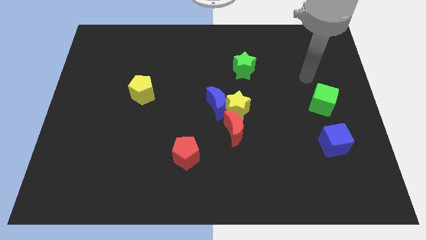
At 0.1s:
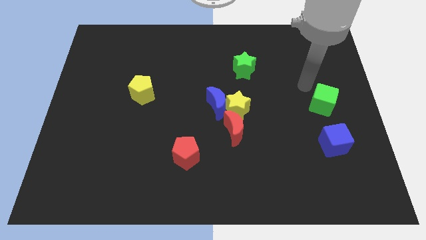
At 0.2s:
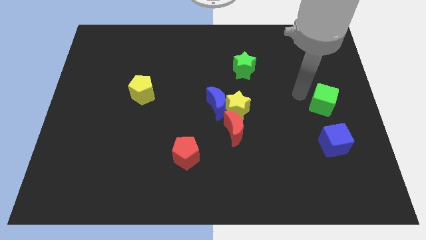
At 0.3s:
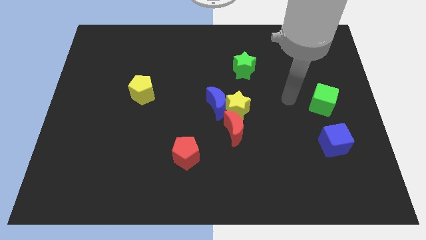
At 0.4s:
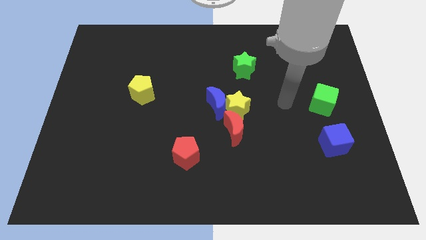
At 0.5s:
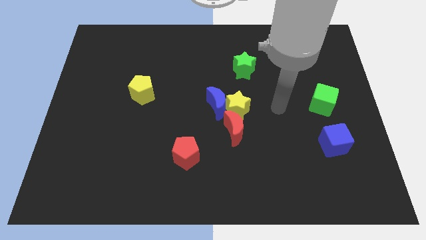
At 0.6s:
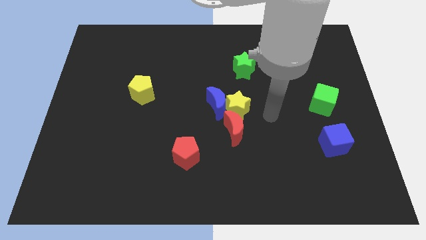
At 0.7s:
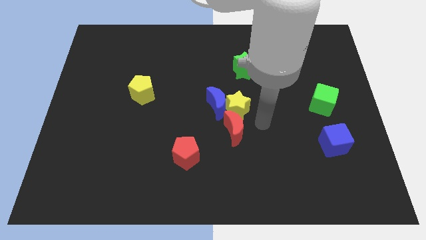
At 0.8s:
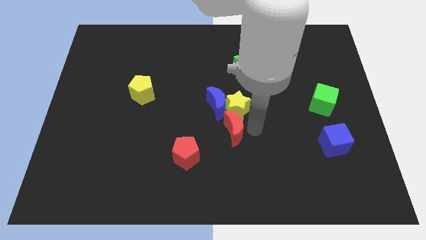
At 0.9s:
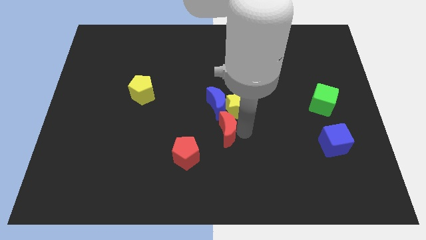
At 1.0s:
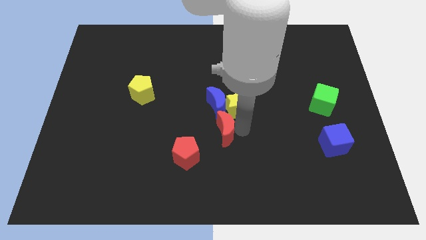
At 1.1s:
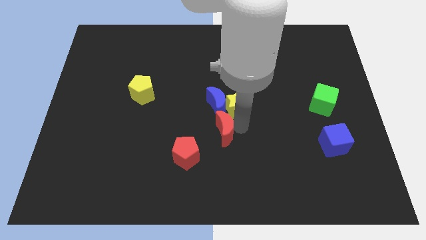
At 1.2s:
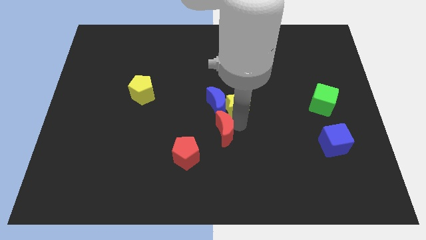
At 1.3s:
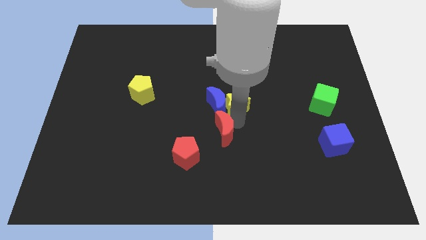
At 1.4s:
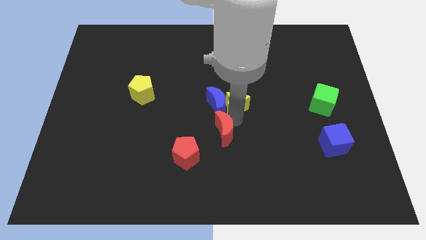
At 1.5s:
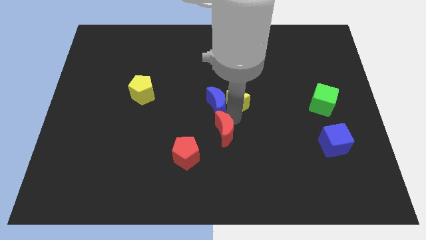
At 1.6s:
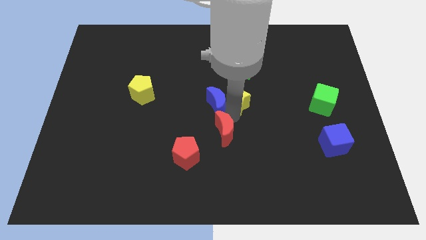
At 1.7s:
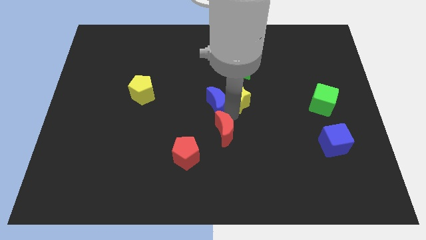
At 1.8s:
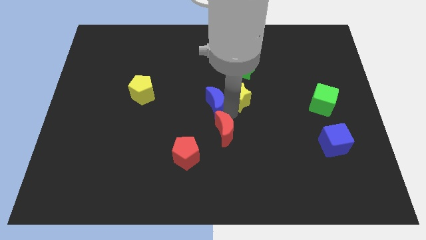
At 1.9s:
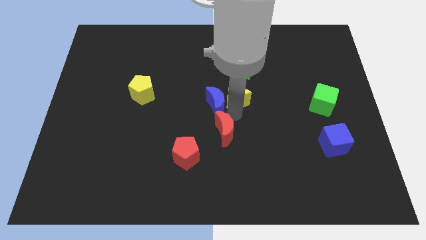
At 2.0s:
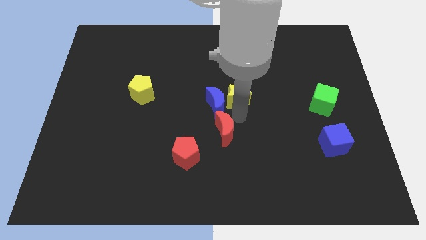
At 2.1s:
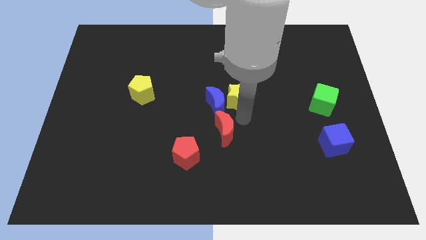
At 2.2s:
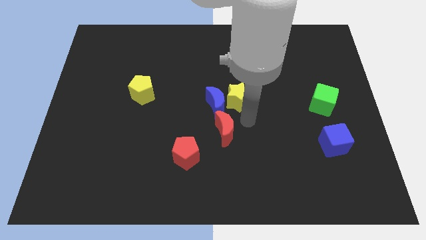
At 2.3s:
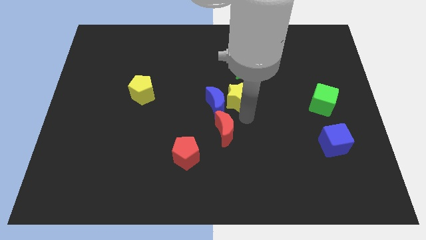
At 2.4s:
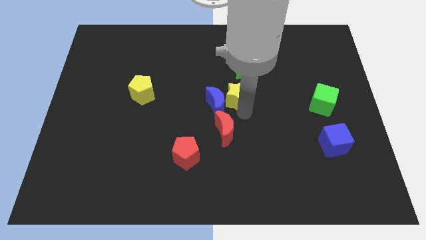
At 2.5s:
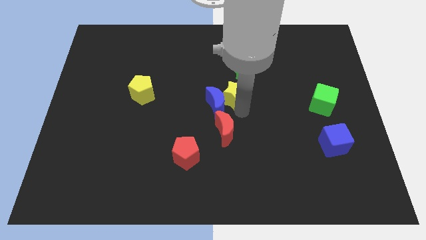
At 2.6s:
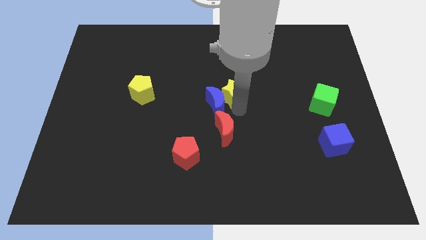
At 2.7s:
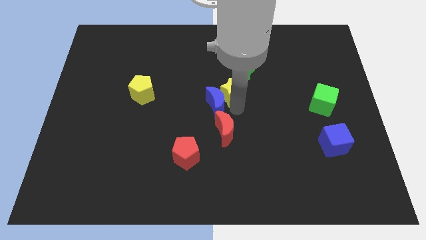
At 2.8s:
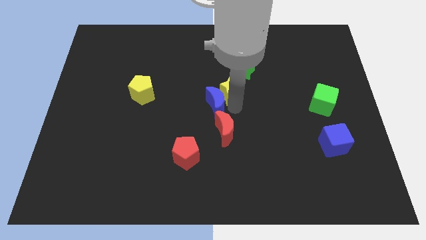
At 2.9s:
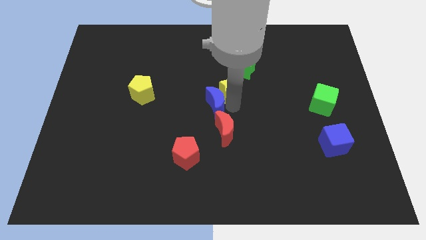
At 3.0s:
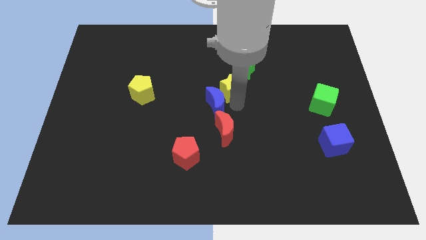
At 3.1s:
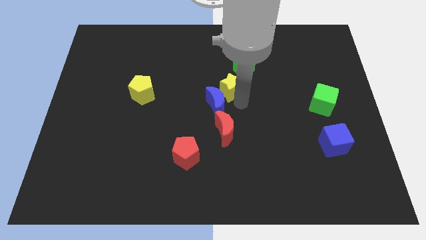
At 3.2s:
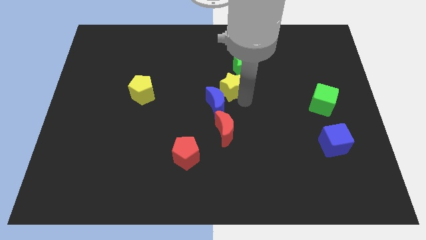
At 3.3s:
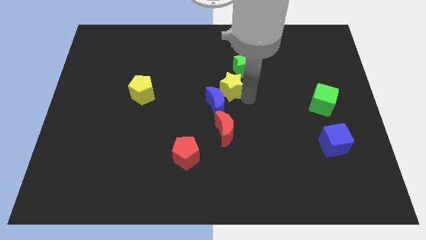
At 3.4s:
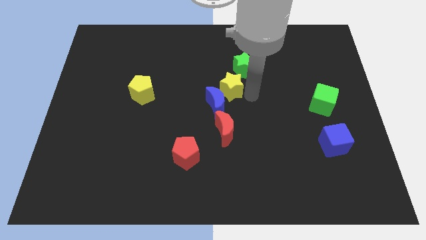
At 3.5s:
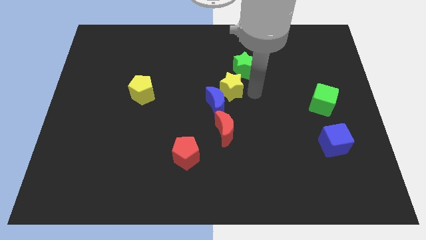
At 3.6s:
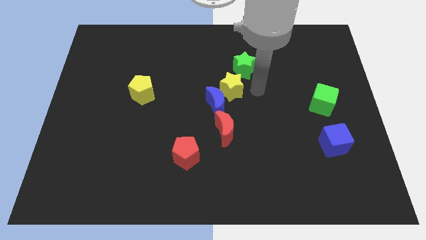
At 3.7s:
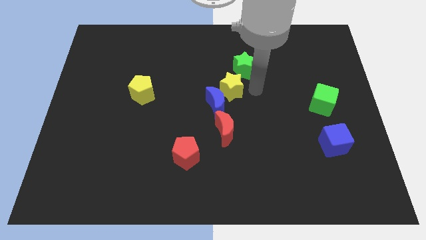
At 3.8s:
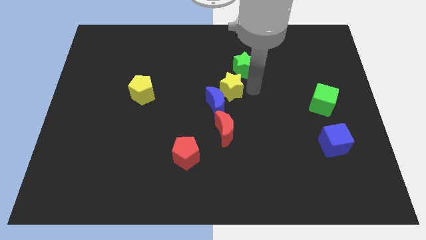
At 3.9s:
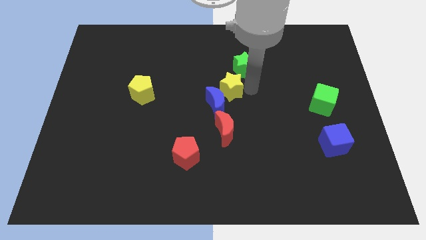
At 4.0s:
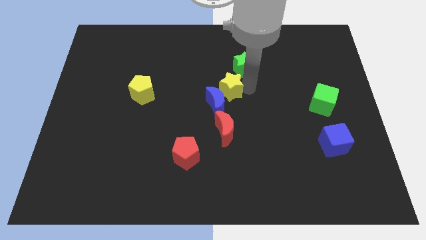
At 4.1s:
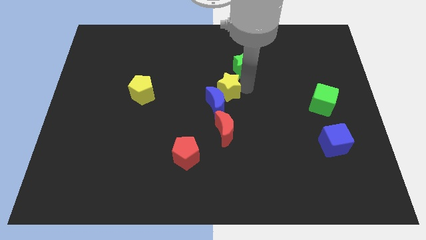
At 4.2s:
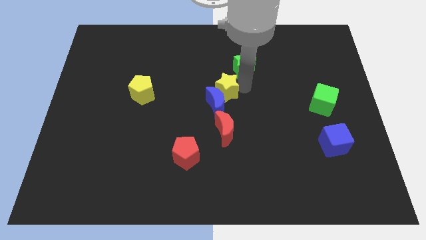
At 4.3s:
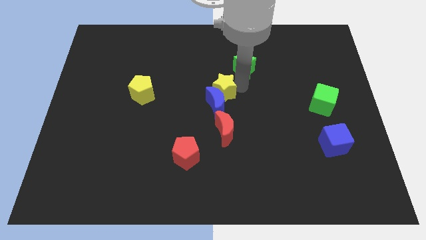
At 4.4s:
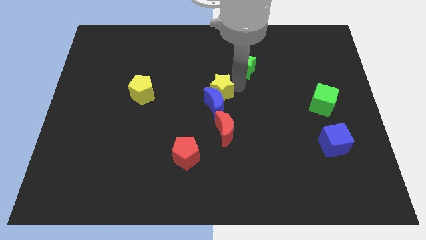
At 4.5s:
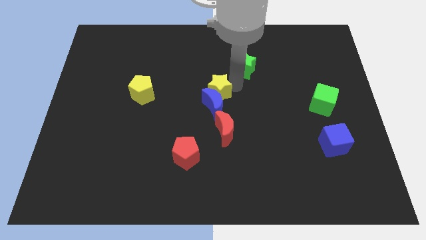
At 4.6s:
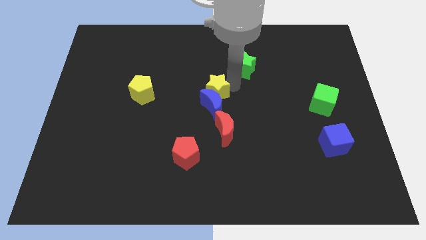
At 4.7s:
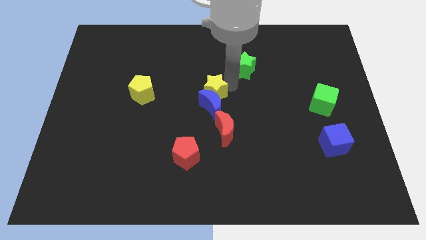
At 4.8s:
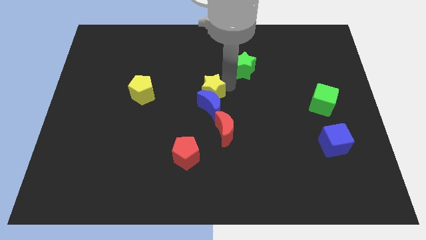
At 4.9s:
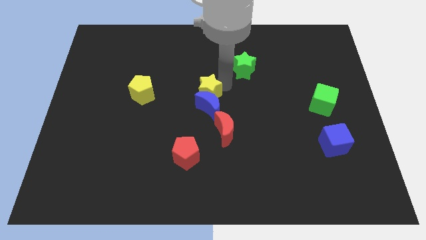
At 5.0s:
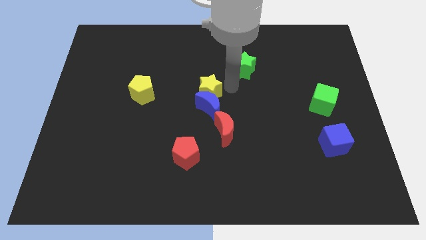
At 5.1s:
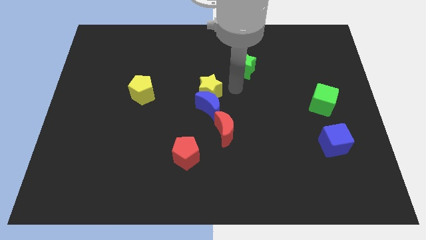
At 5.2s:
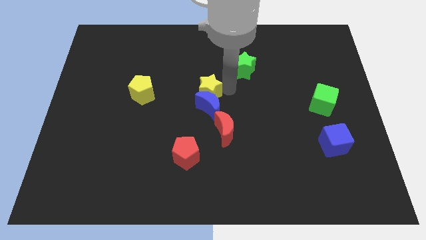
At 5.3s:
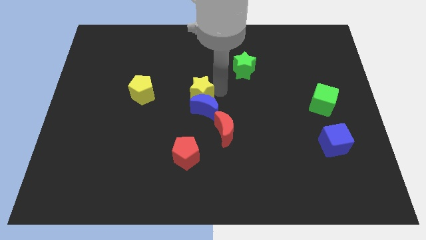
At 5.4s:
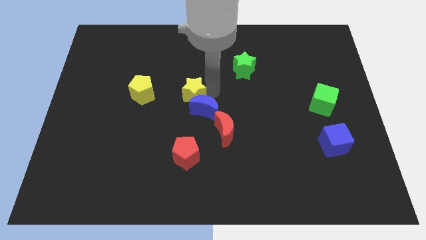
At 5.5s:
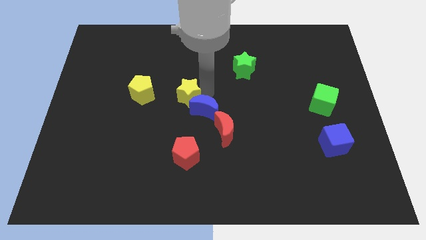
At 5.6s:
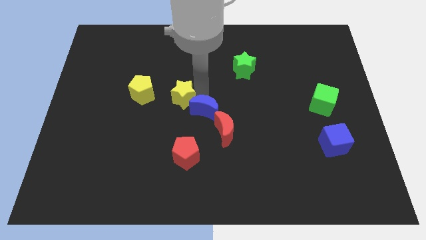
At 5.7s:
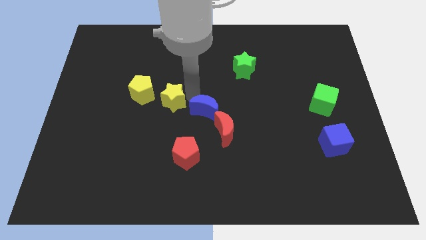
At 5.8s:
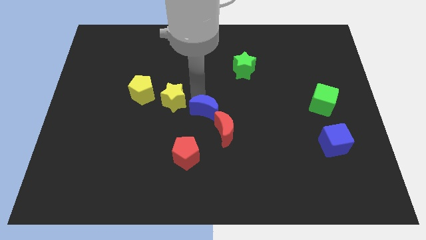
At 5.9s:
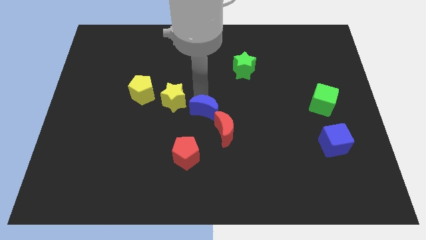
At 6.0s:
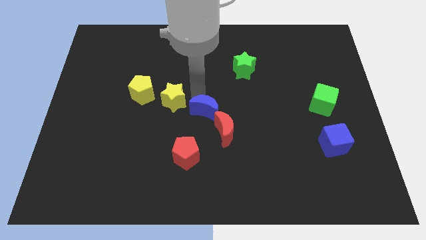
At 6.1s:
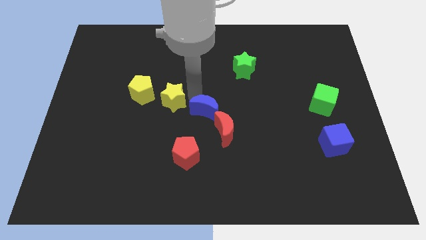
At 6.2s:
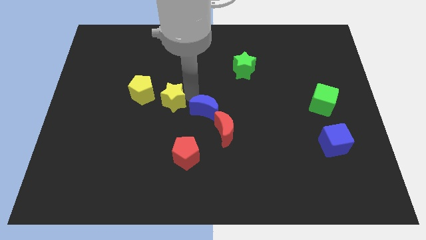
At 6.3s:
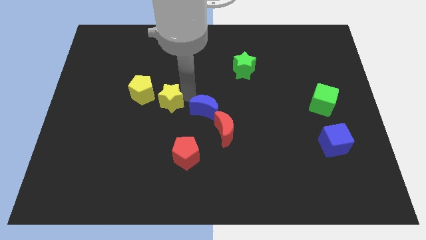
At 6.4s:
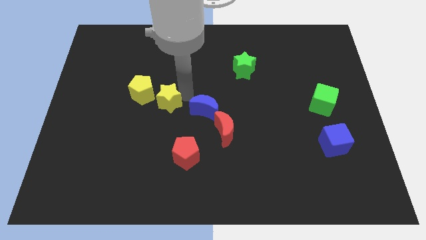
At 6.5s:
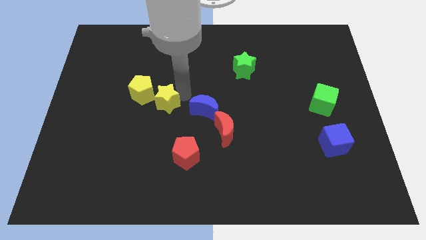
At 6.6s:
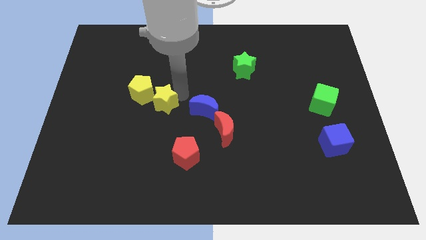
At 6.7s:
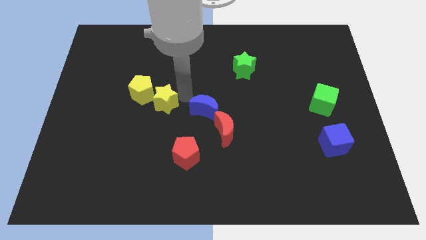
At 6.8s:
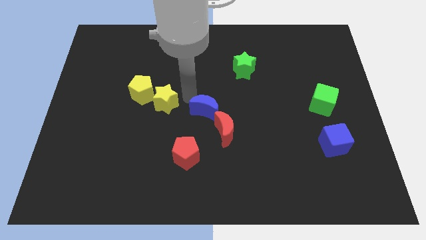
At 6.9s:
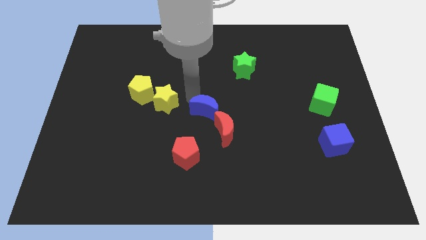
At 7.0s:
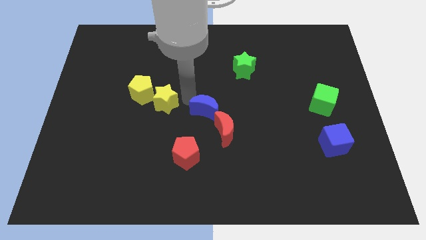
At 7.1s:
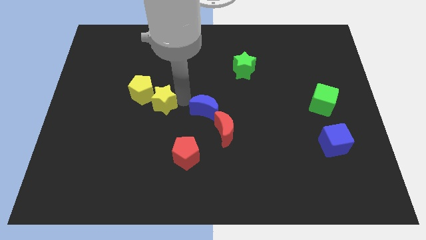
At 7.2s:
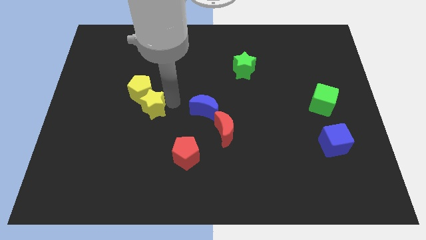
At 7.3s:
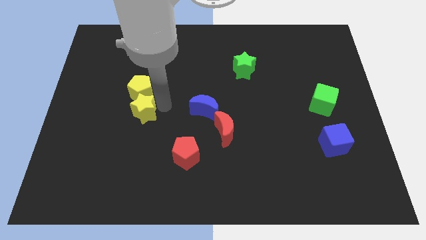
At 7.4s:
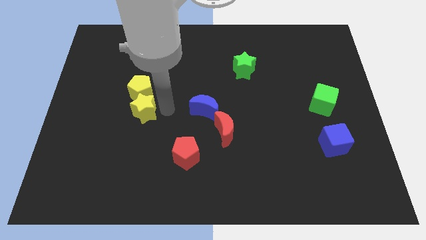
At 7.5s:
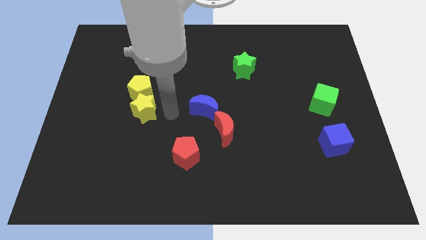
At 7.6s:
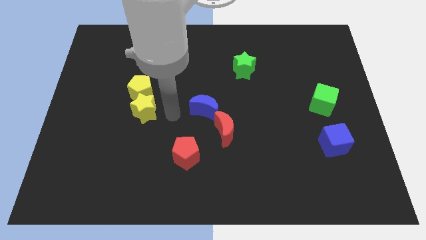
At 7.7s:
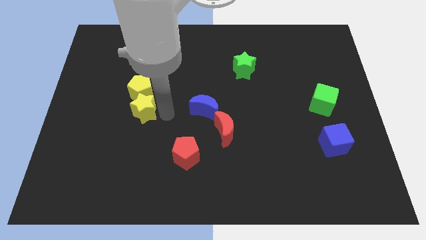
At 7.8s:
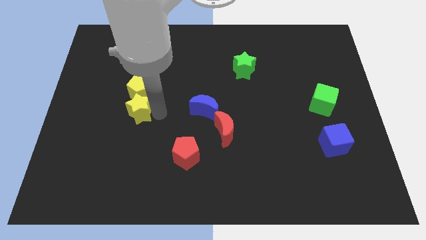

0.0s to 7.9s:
push the yellow star to the bottom left side of the yellow pentagon
